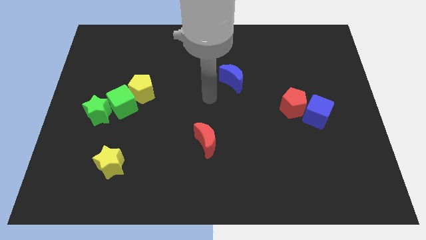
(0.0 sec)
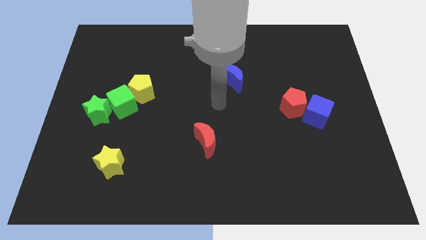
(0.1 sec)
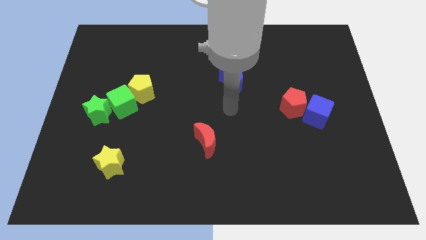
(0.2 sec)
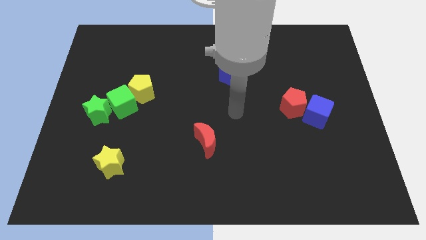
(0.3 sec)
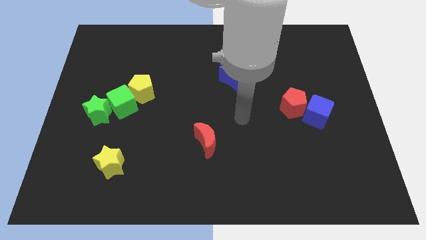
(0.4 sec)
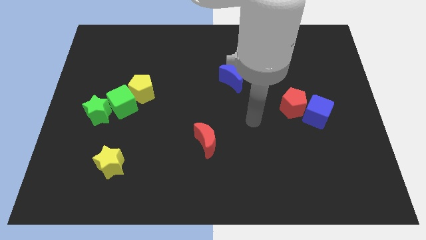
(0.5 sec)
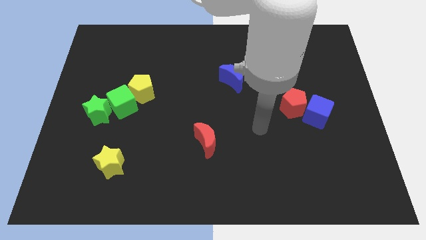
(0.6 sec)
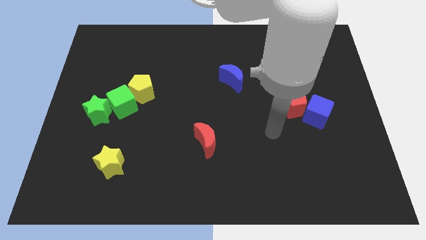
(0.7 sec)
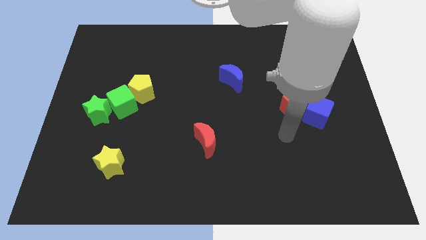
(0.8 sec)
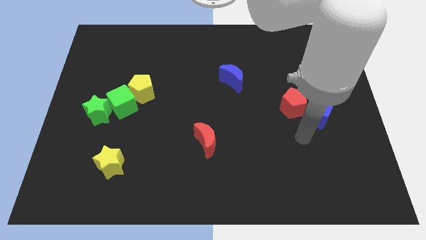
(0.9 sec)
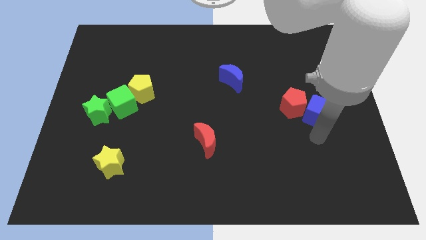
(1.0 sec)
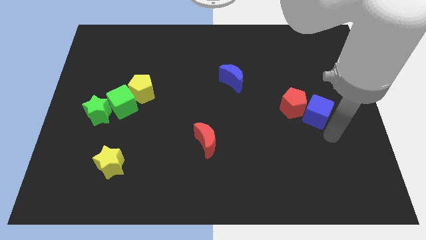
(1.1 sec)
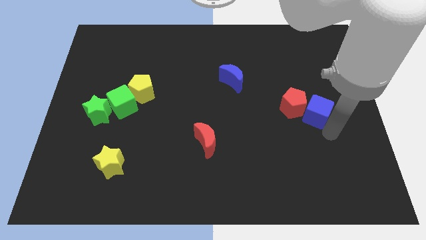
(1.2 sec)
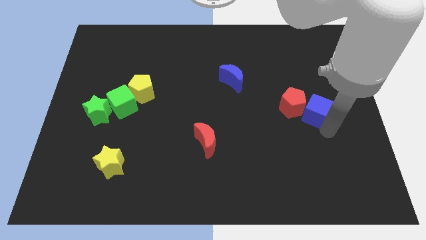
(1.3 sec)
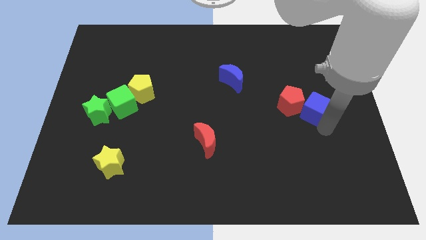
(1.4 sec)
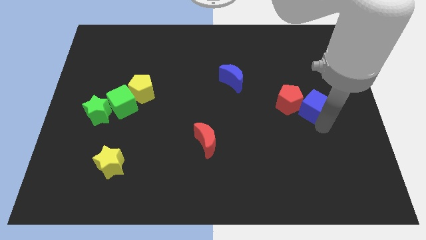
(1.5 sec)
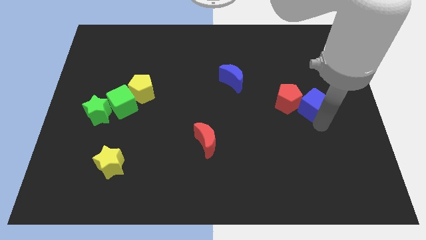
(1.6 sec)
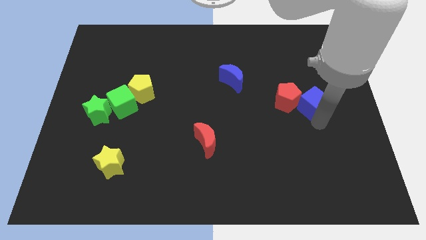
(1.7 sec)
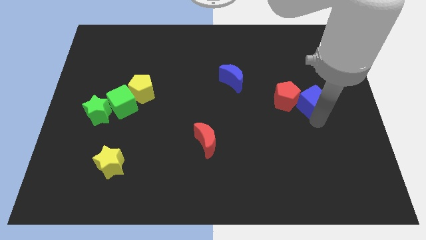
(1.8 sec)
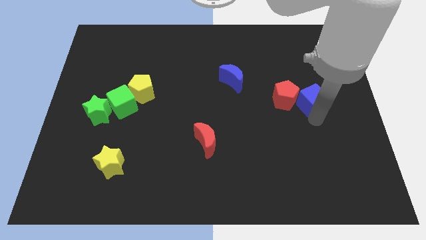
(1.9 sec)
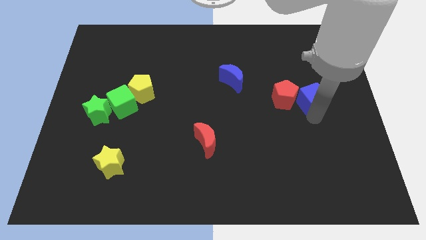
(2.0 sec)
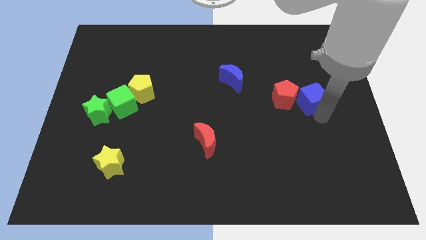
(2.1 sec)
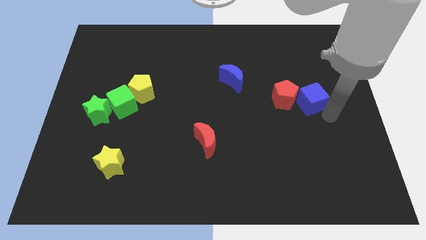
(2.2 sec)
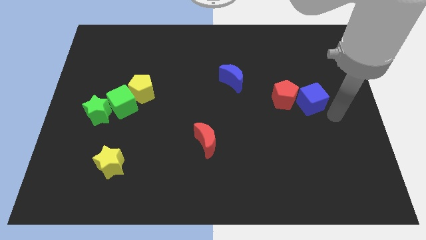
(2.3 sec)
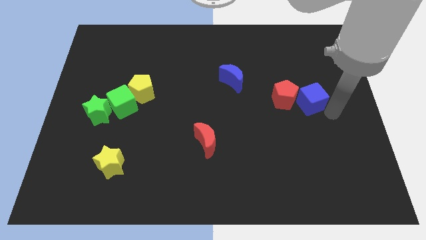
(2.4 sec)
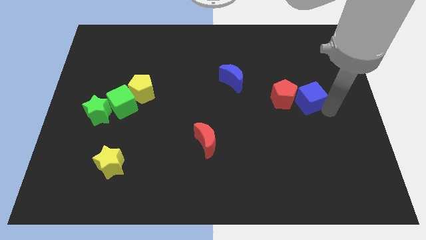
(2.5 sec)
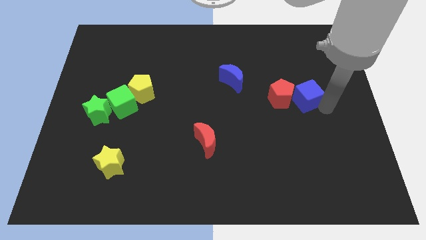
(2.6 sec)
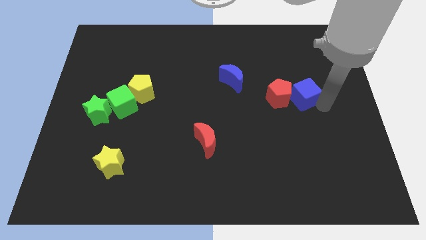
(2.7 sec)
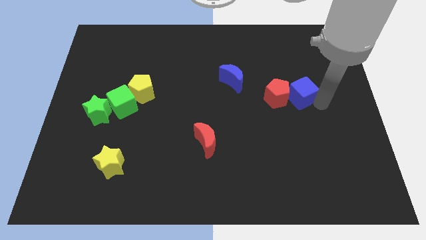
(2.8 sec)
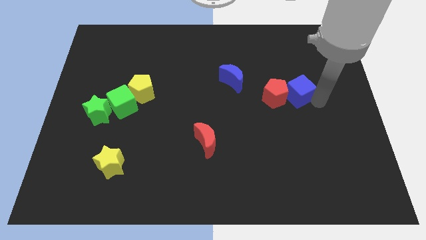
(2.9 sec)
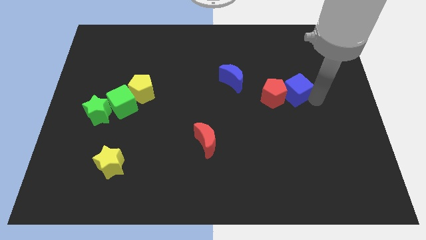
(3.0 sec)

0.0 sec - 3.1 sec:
move the blue cube diagonally upwards and left somewhat

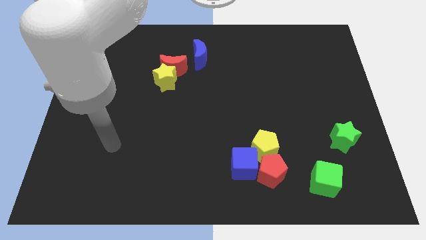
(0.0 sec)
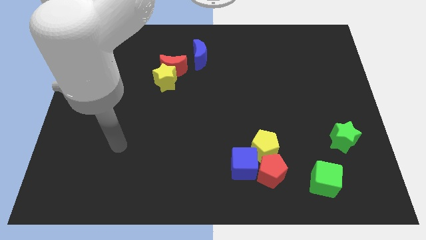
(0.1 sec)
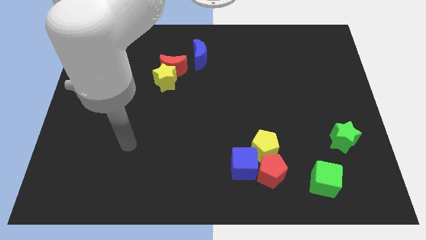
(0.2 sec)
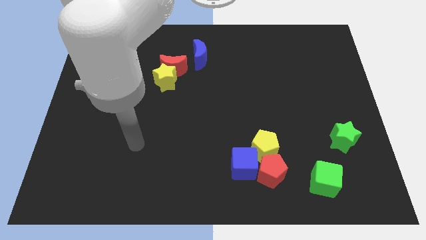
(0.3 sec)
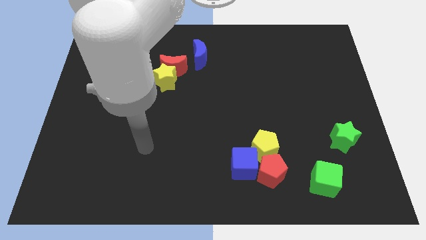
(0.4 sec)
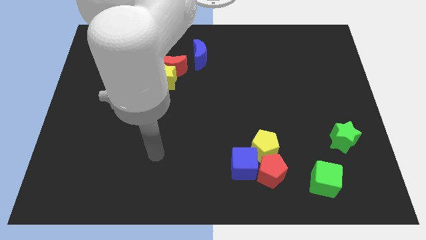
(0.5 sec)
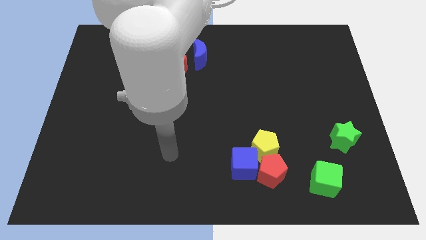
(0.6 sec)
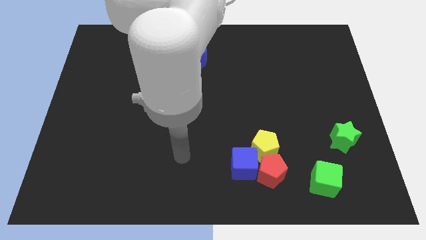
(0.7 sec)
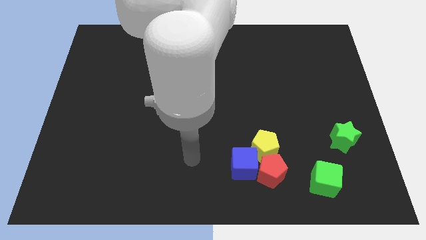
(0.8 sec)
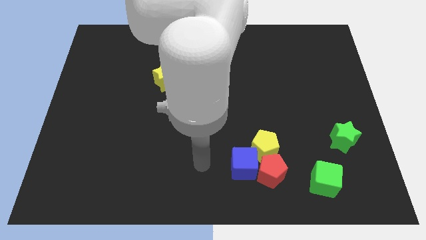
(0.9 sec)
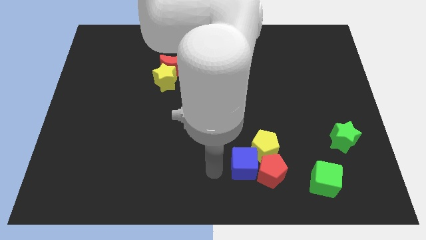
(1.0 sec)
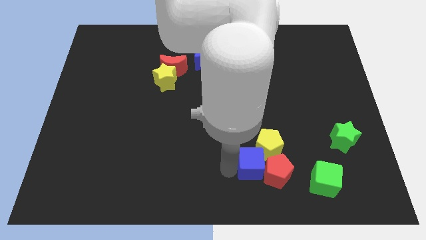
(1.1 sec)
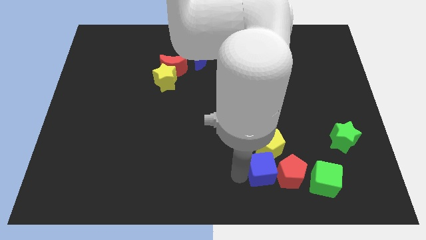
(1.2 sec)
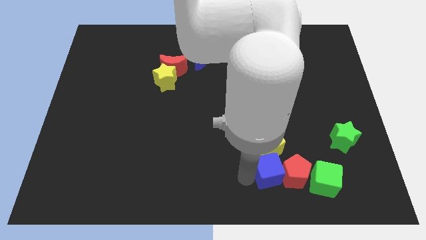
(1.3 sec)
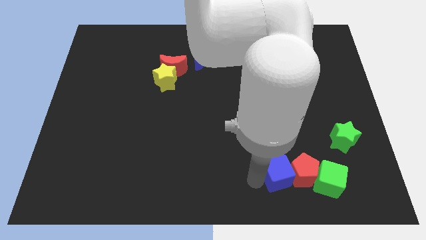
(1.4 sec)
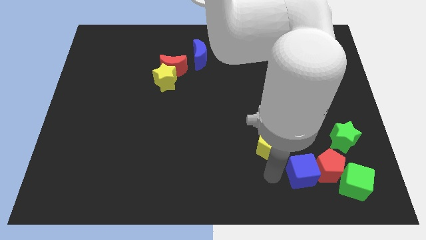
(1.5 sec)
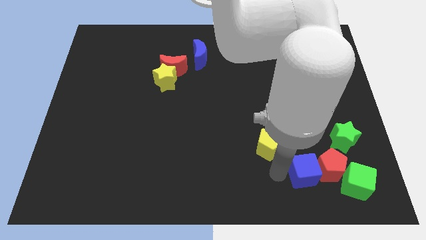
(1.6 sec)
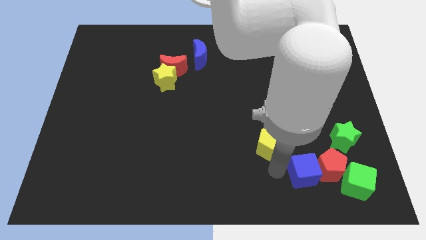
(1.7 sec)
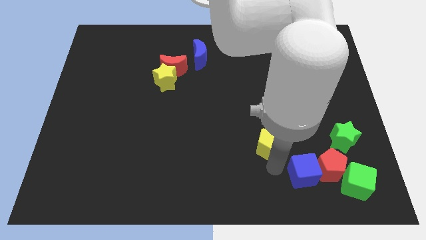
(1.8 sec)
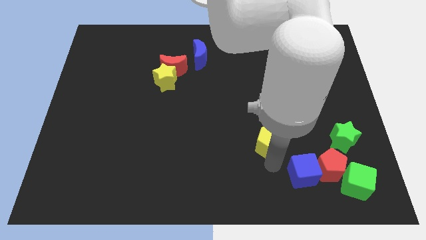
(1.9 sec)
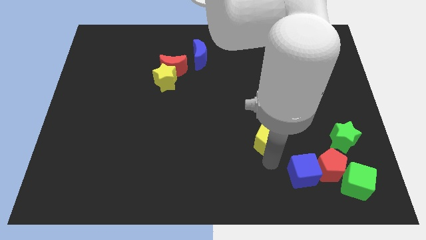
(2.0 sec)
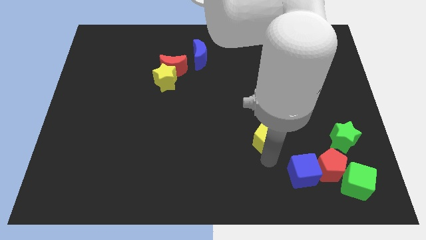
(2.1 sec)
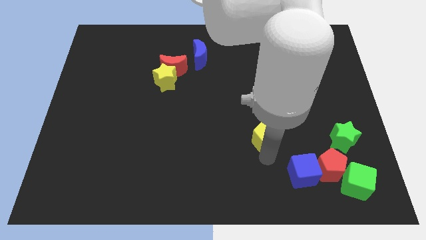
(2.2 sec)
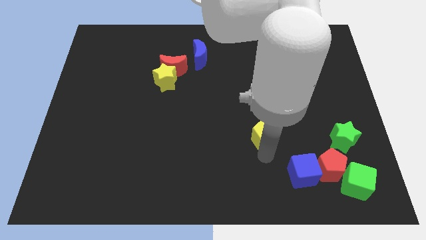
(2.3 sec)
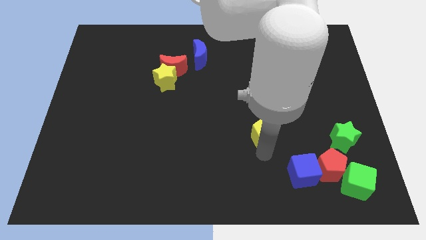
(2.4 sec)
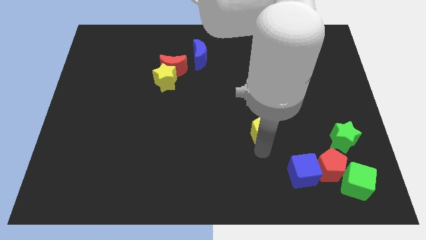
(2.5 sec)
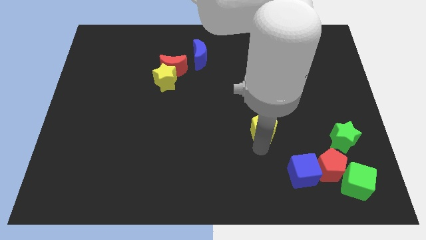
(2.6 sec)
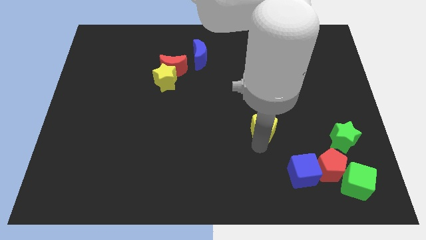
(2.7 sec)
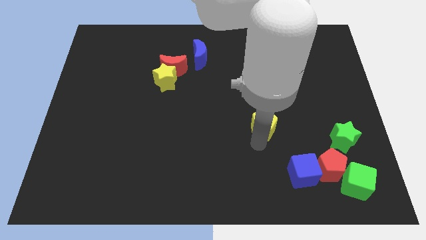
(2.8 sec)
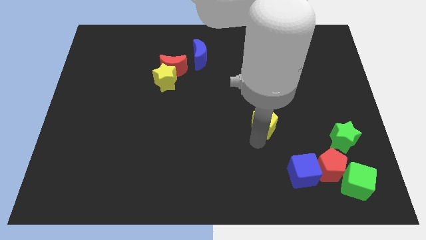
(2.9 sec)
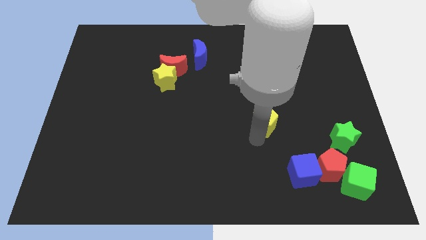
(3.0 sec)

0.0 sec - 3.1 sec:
slide the yellow pentagon upwards somewhat

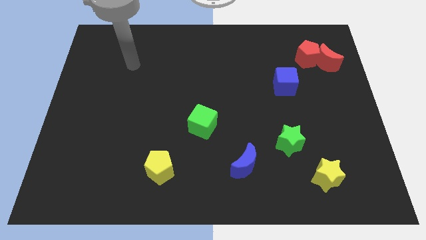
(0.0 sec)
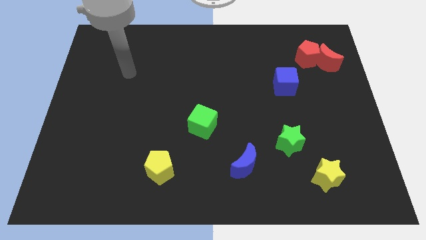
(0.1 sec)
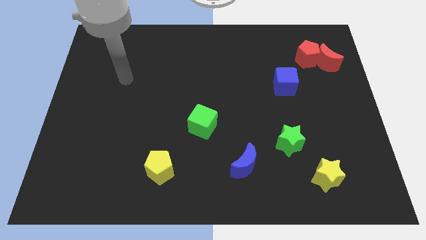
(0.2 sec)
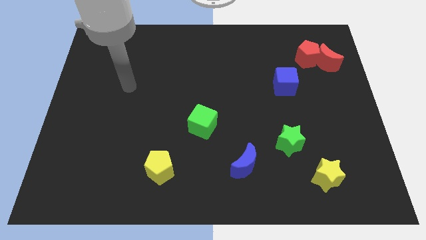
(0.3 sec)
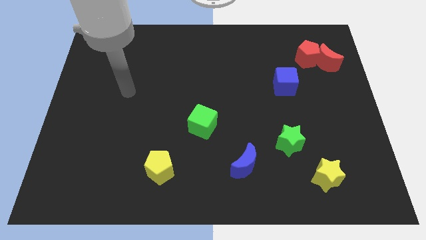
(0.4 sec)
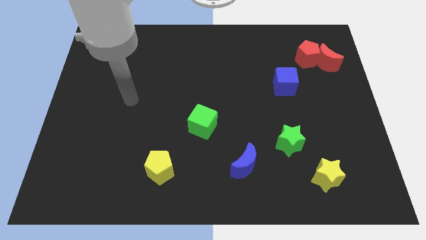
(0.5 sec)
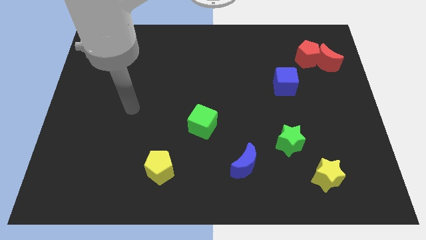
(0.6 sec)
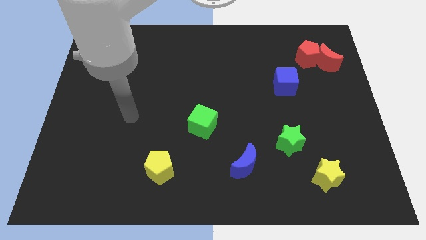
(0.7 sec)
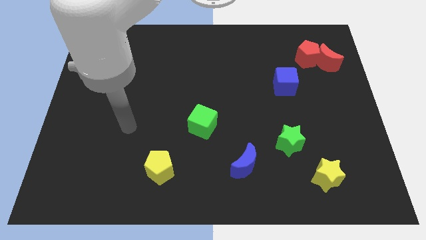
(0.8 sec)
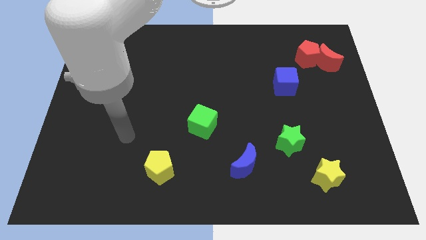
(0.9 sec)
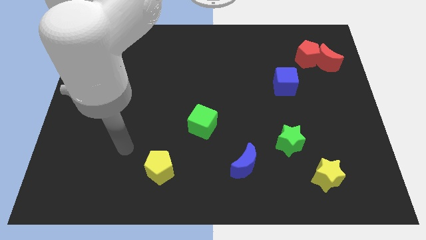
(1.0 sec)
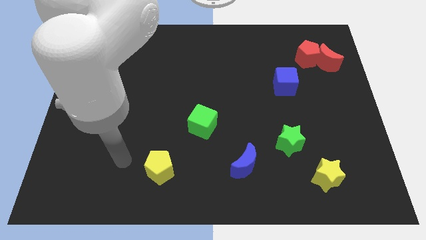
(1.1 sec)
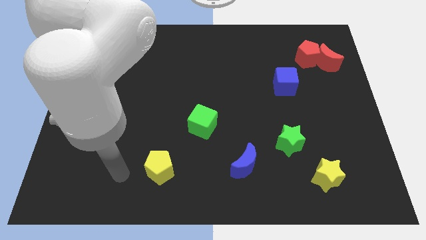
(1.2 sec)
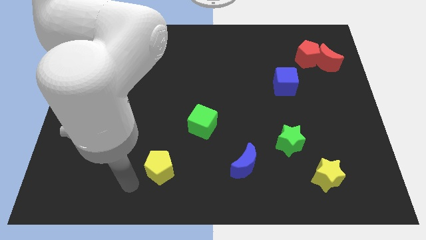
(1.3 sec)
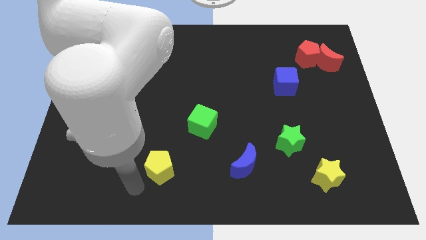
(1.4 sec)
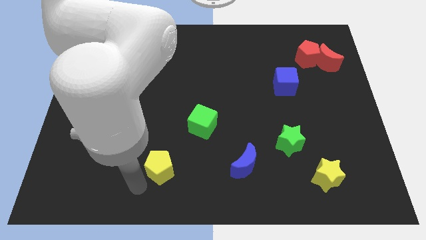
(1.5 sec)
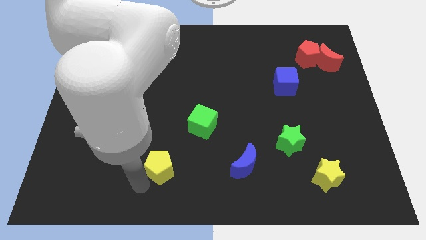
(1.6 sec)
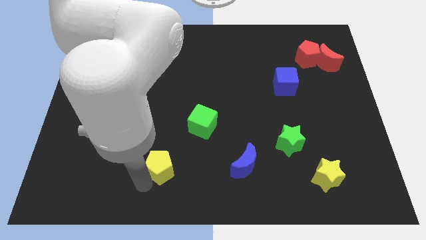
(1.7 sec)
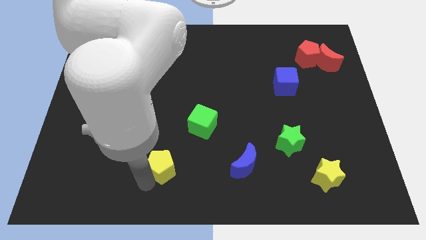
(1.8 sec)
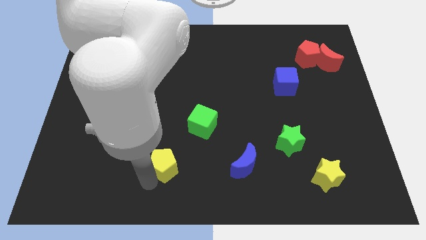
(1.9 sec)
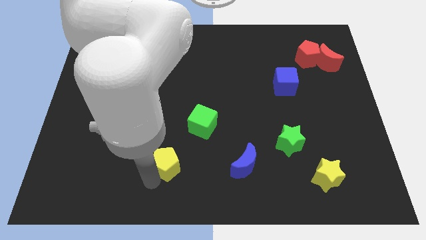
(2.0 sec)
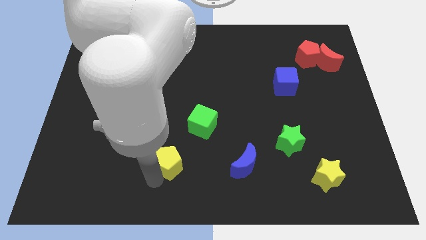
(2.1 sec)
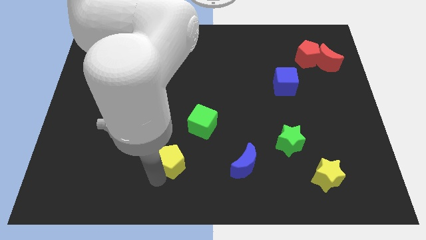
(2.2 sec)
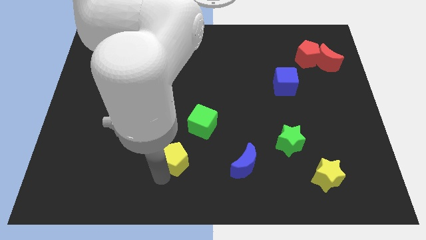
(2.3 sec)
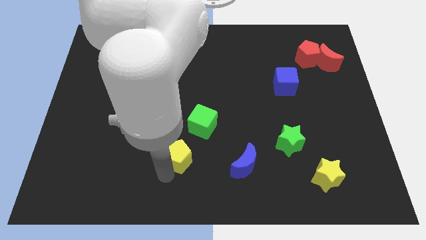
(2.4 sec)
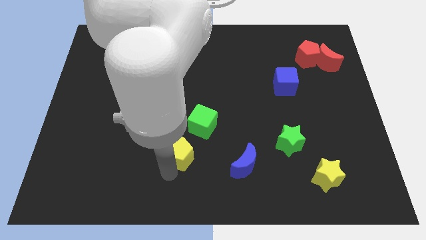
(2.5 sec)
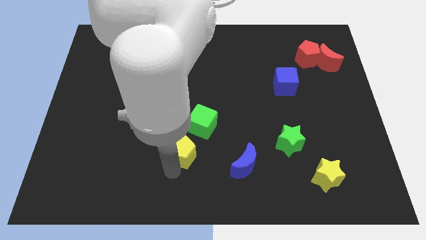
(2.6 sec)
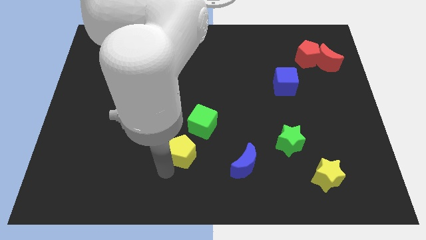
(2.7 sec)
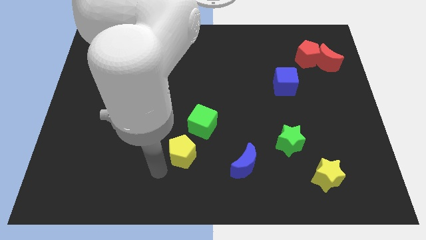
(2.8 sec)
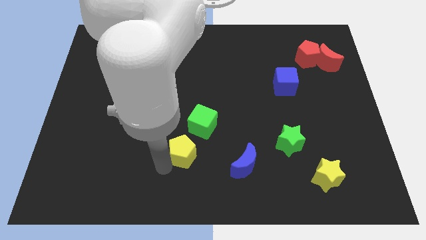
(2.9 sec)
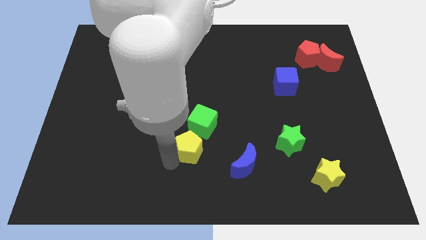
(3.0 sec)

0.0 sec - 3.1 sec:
slightly move the yellow pentagon upwards and right
